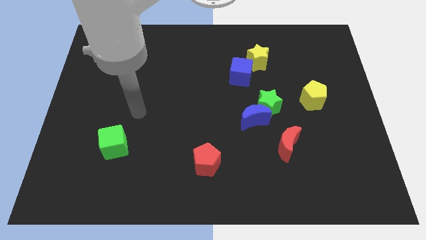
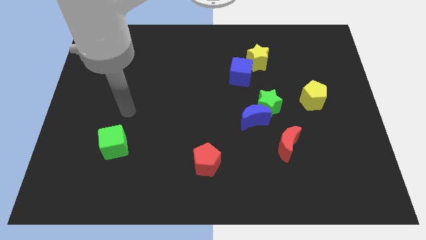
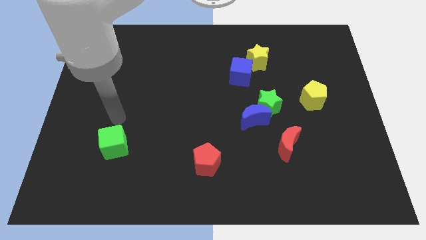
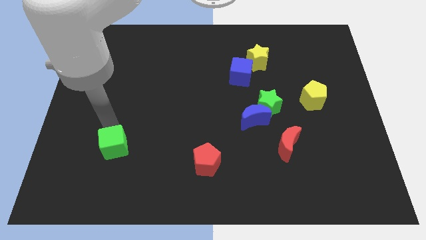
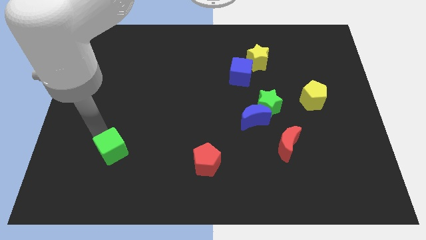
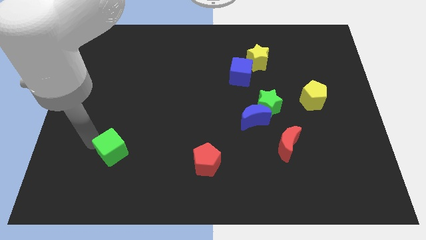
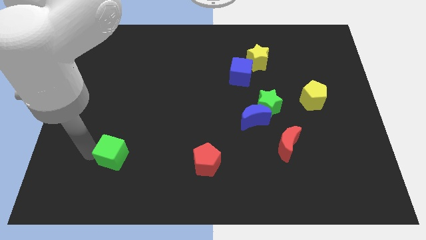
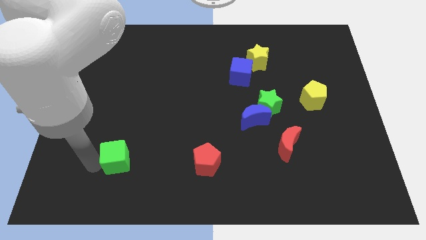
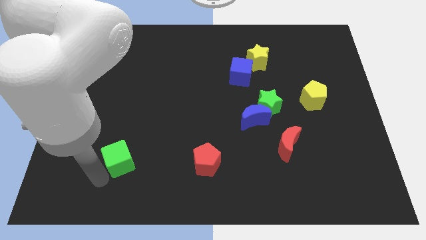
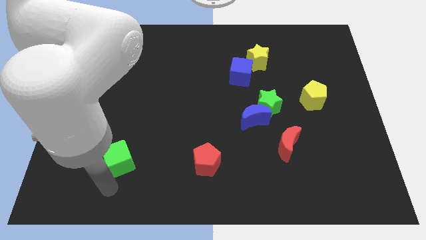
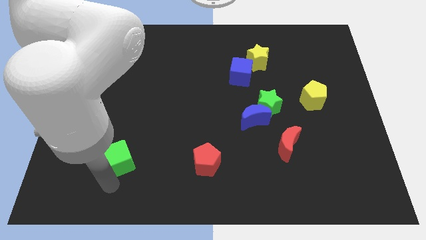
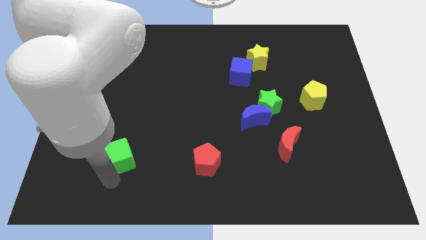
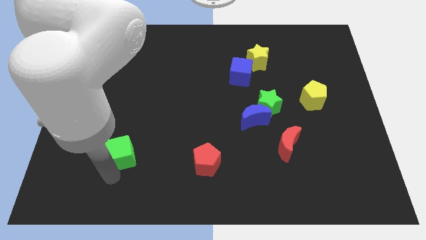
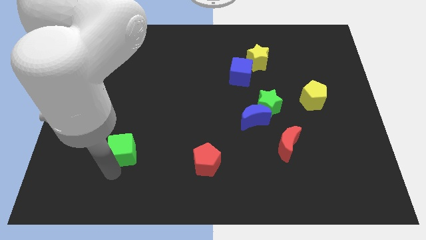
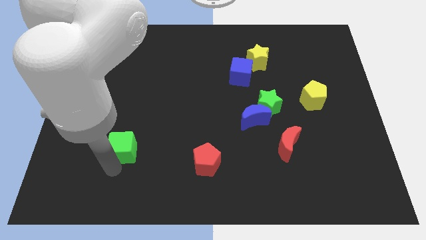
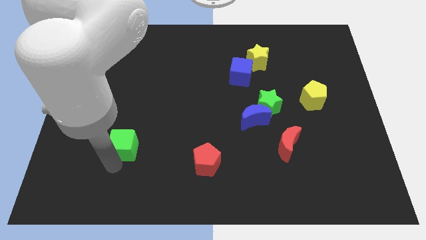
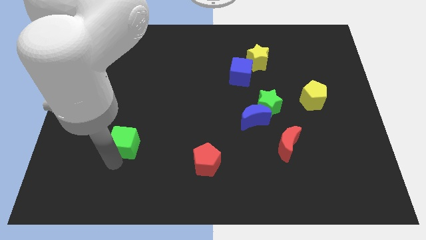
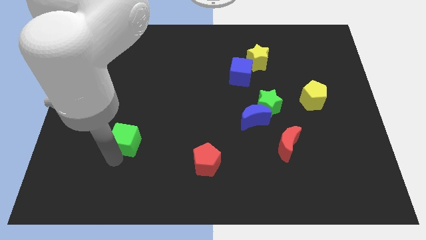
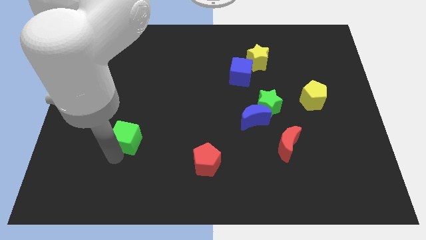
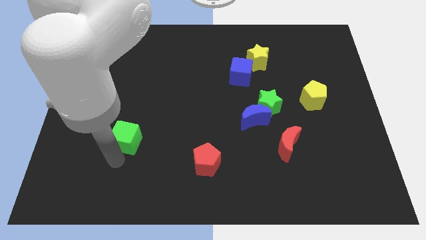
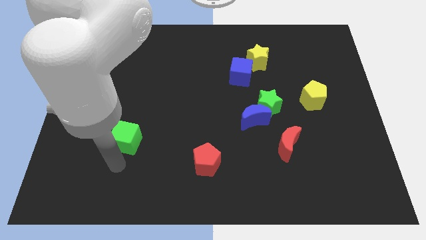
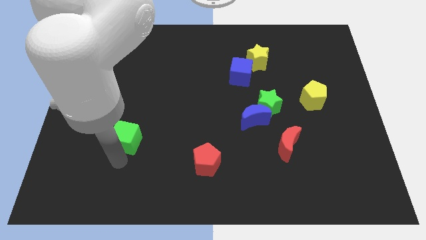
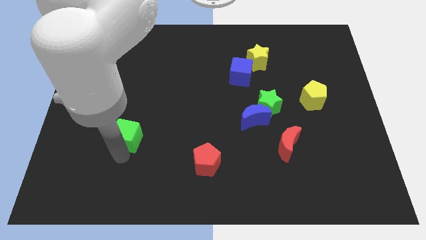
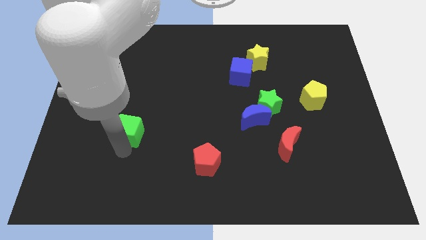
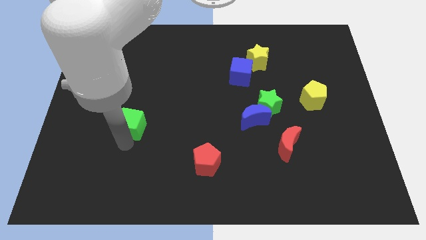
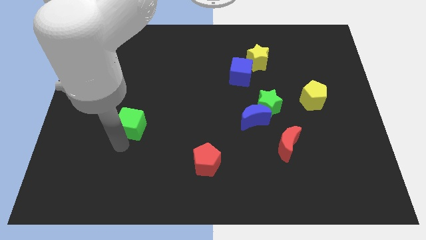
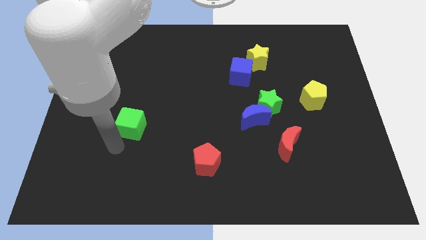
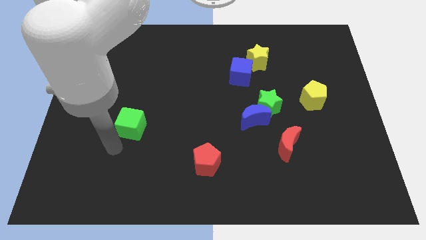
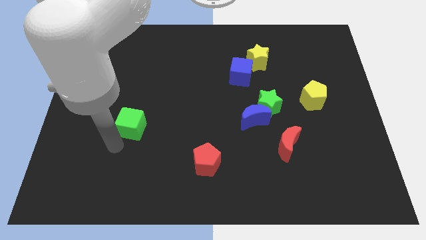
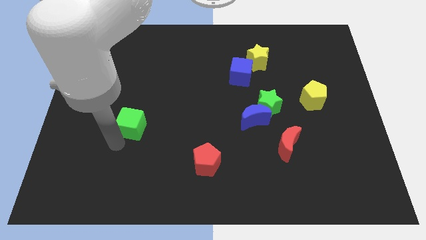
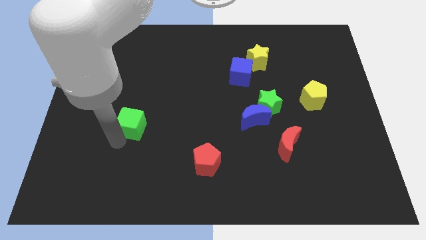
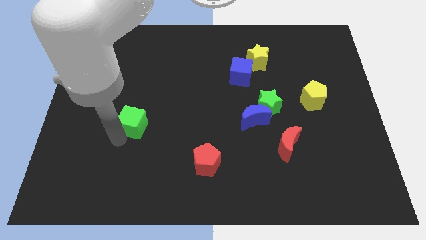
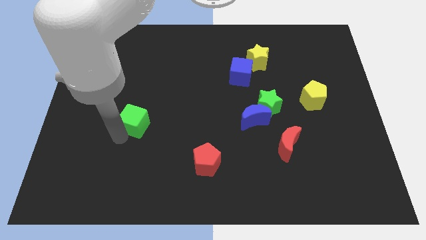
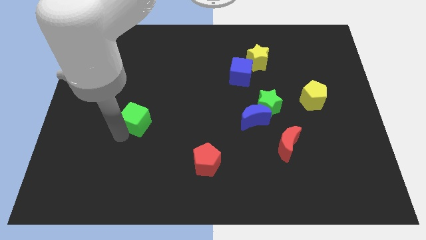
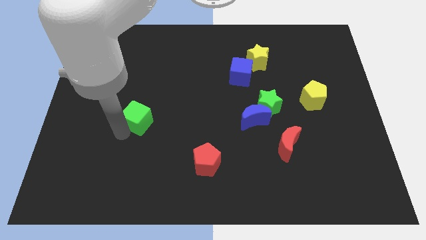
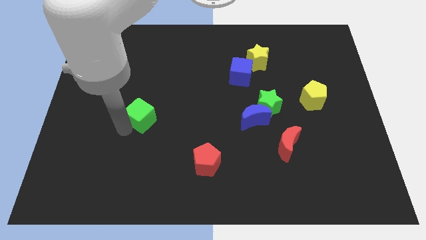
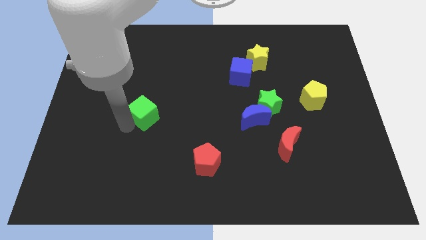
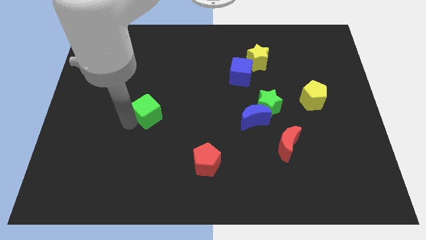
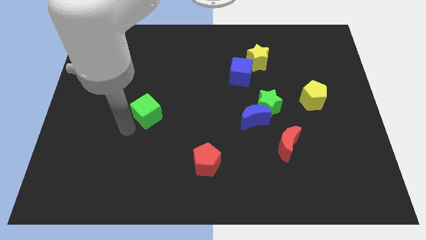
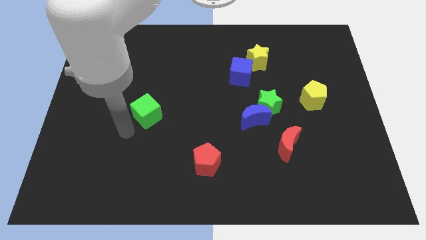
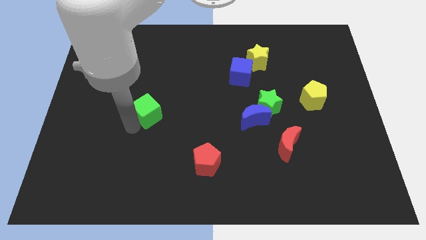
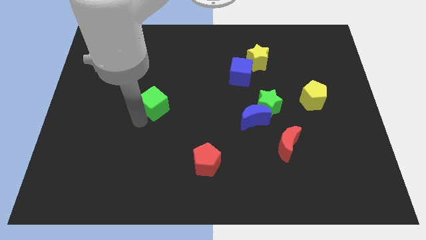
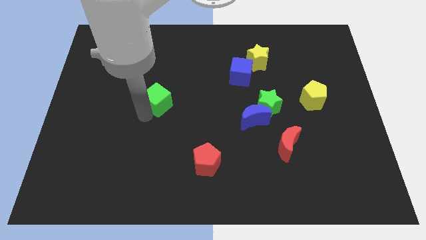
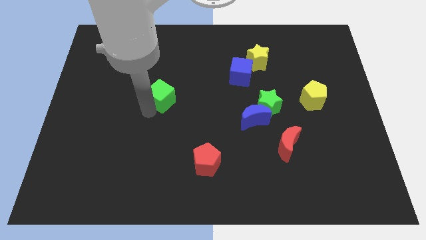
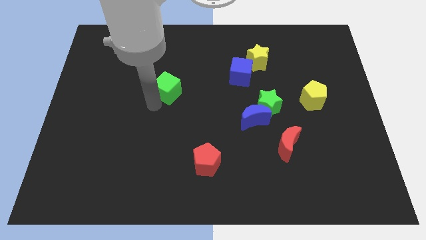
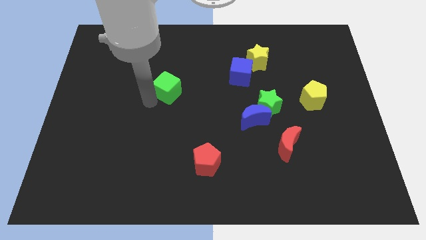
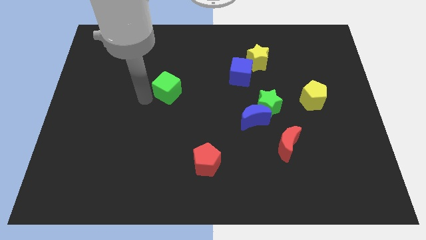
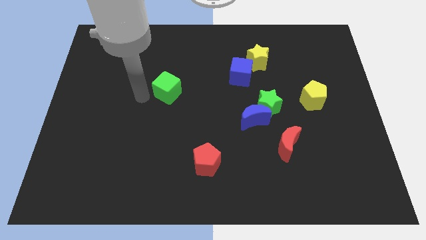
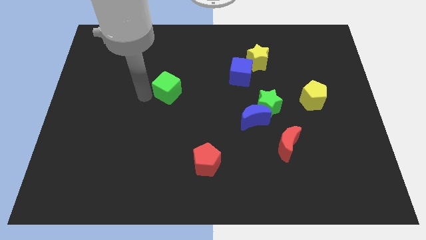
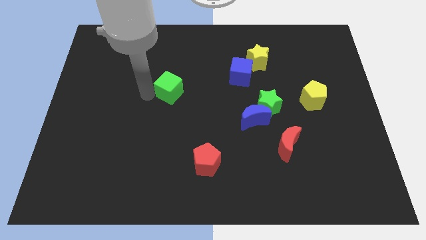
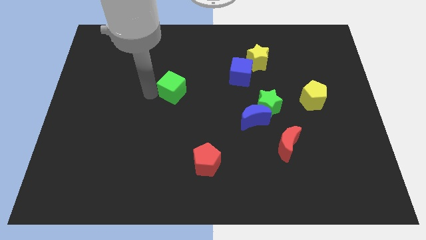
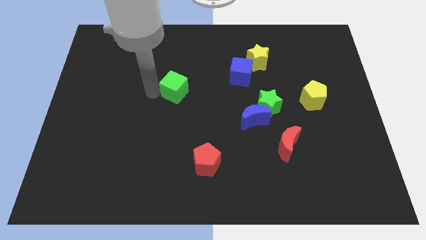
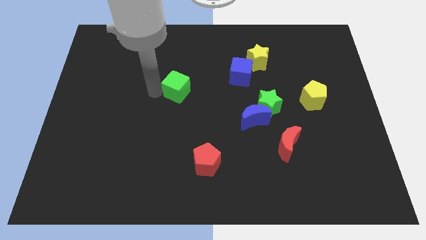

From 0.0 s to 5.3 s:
slide the green cube up and then to the right

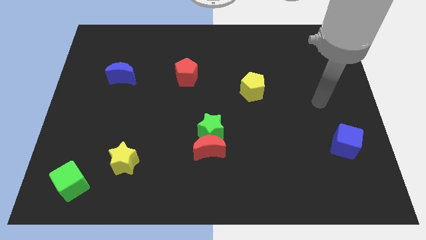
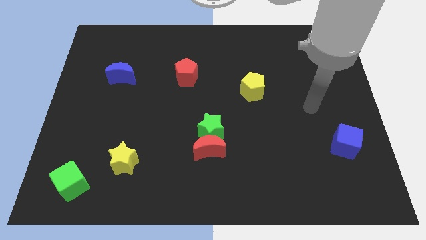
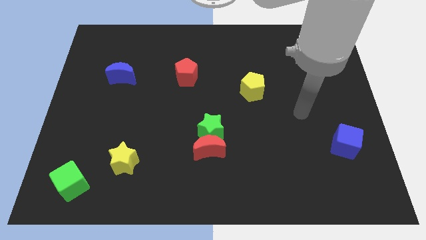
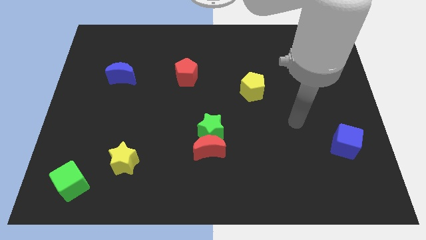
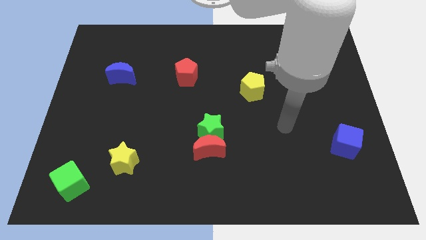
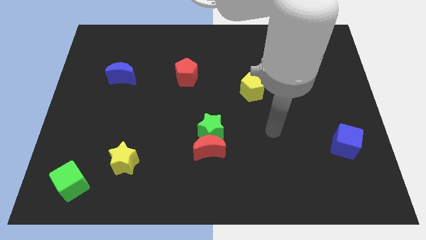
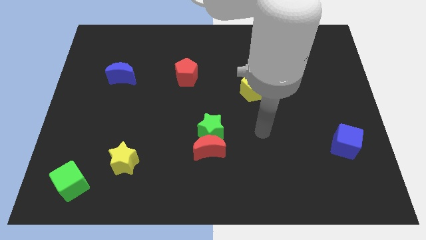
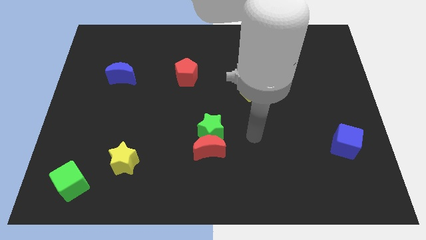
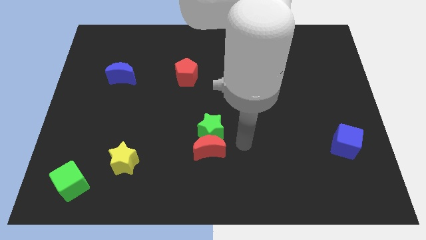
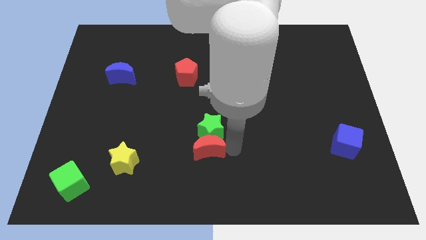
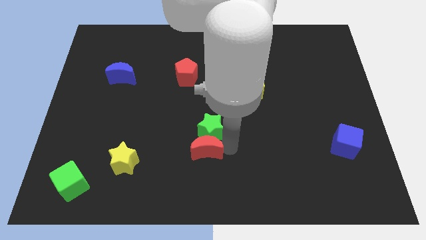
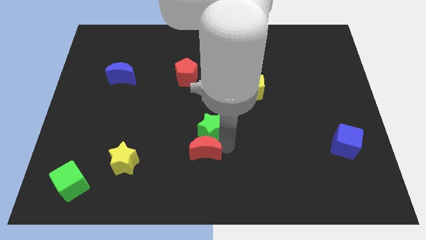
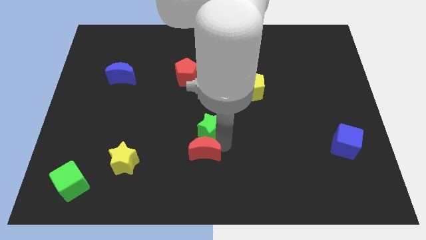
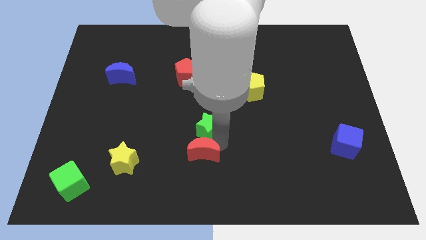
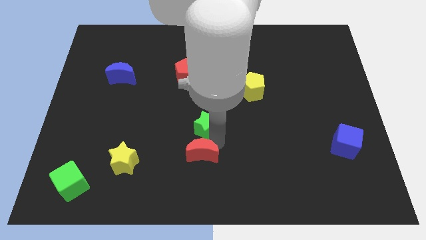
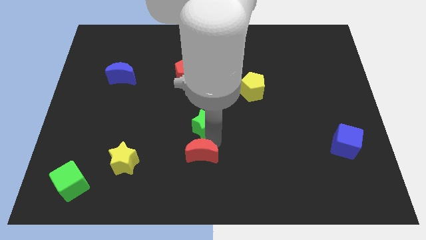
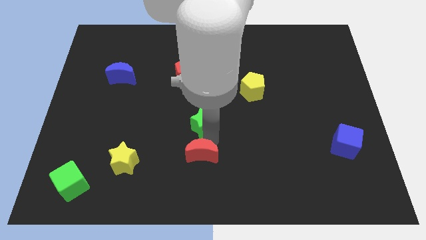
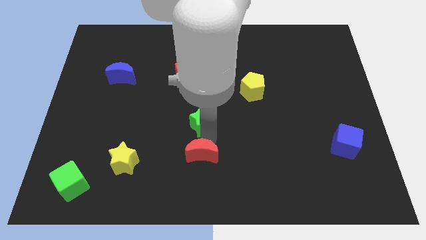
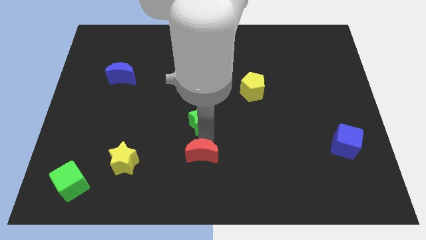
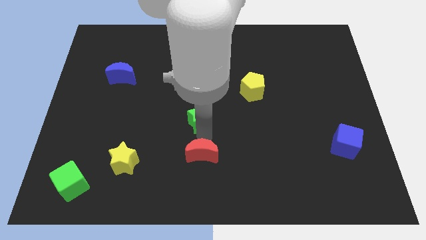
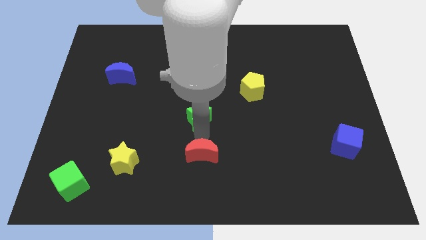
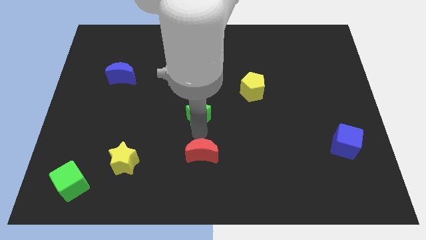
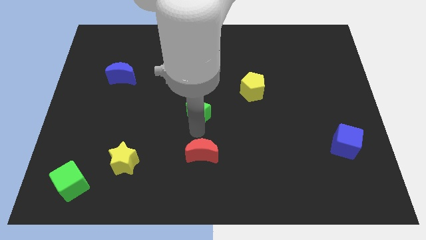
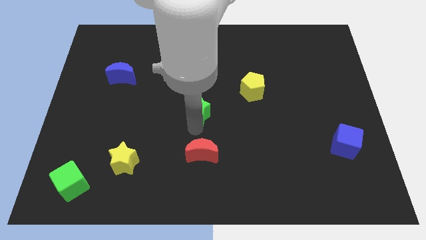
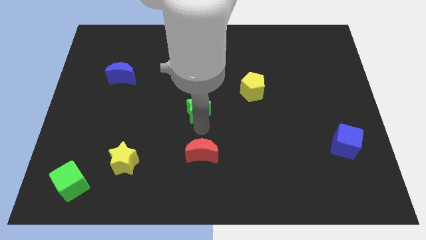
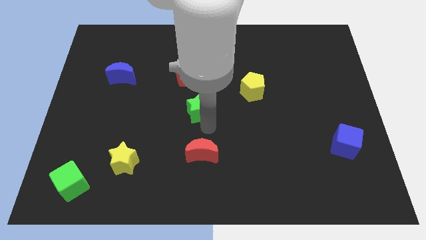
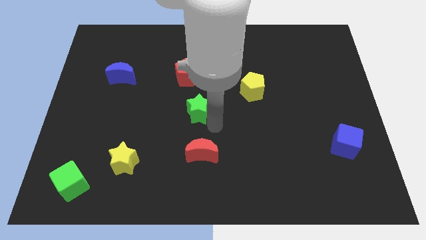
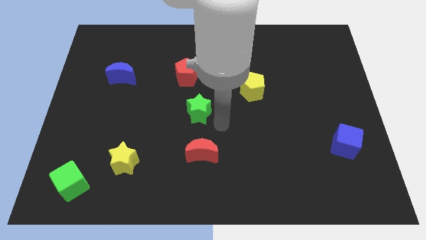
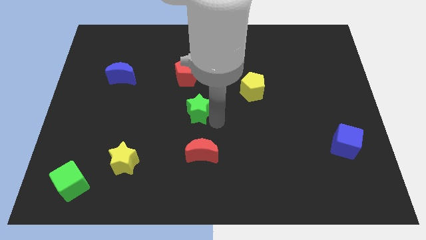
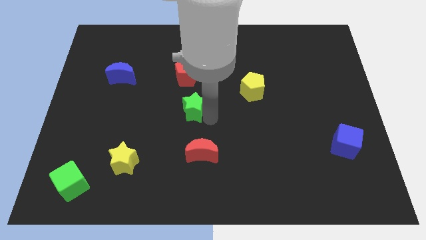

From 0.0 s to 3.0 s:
push the green star a little bit up and left diagonally
